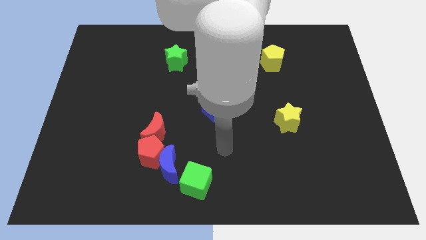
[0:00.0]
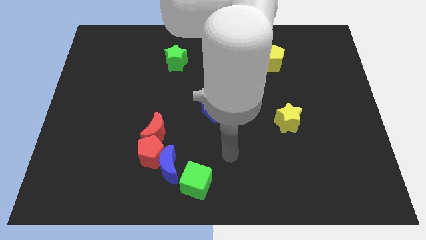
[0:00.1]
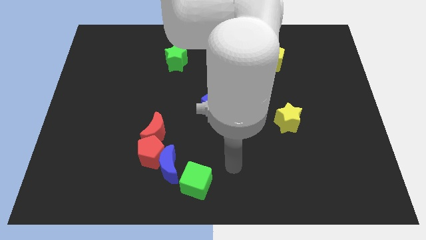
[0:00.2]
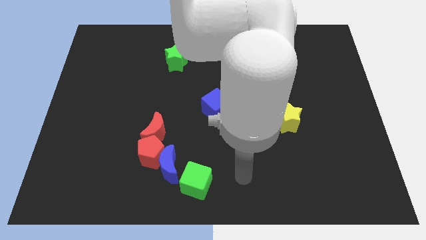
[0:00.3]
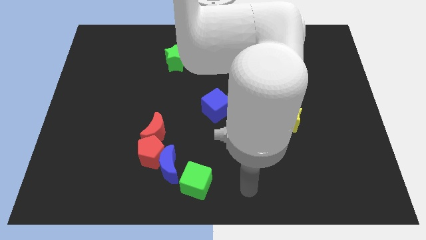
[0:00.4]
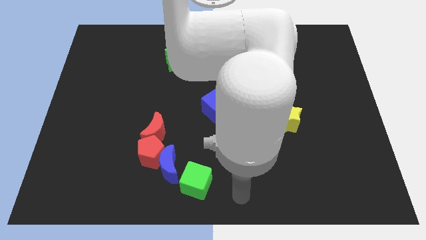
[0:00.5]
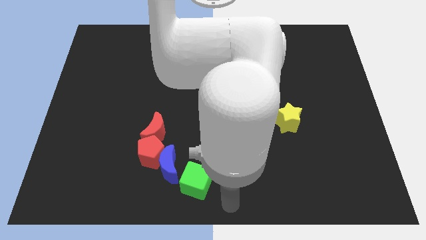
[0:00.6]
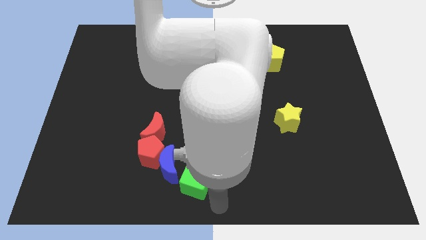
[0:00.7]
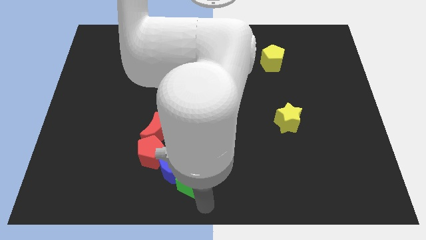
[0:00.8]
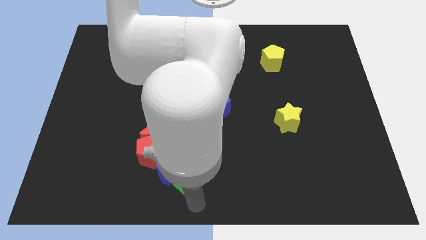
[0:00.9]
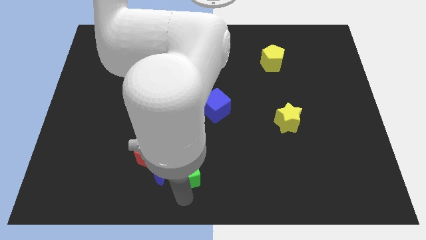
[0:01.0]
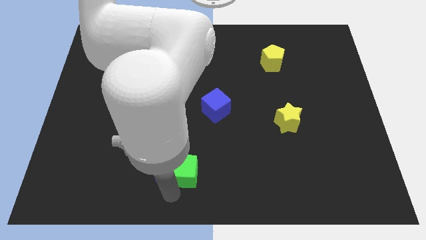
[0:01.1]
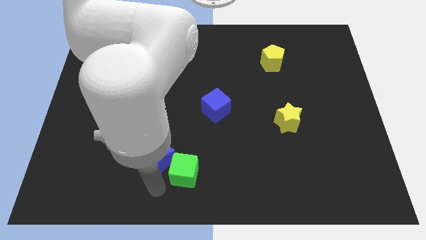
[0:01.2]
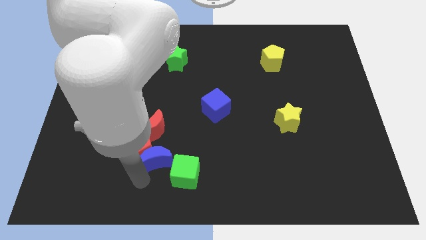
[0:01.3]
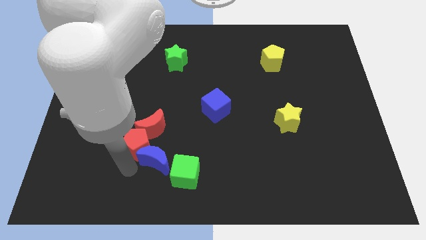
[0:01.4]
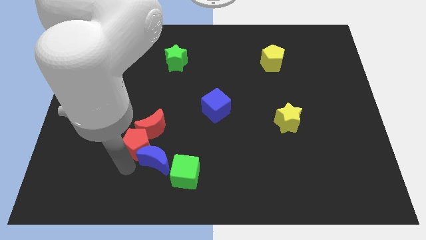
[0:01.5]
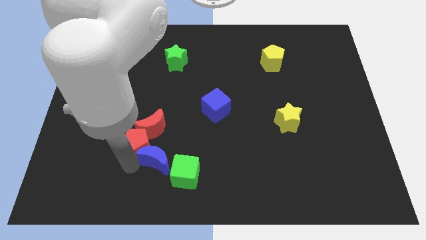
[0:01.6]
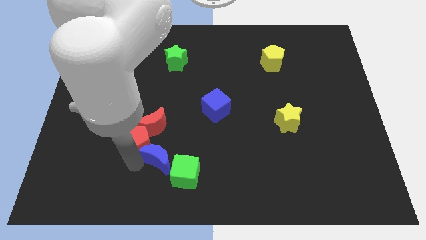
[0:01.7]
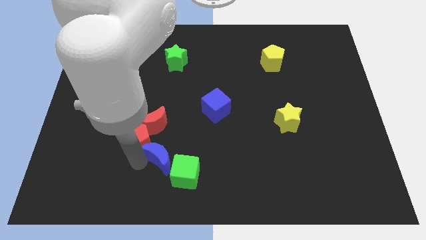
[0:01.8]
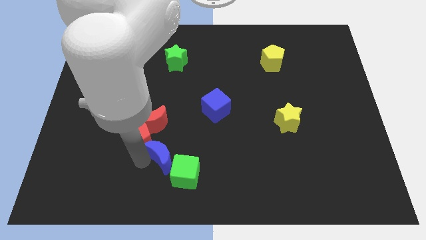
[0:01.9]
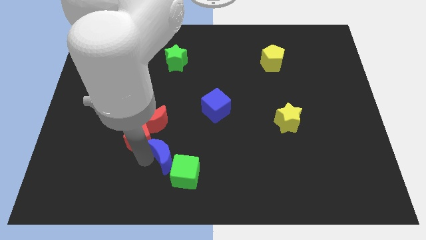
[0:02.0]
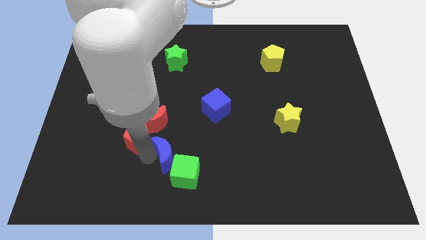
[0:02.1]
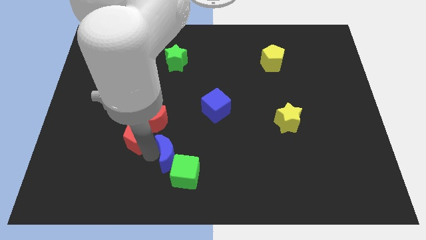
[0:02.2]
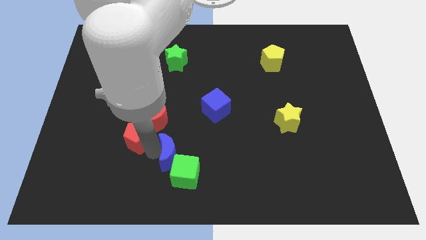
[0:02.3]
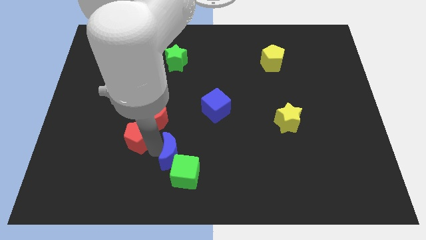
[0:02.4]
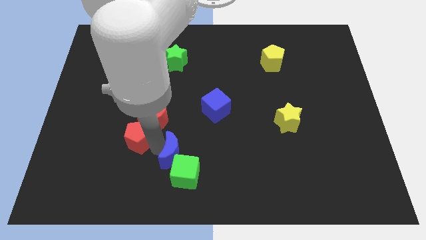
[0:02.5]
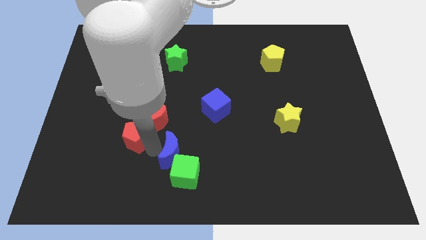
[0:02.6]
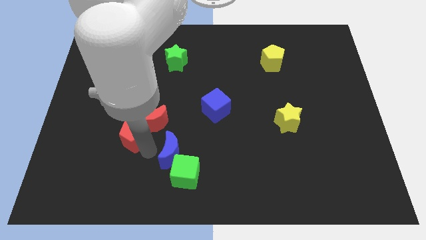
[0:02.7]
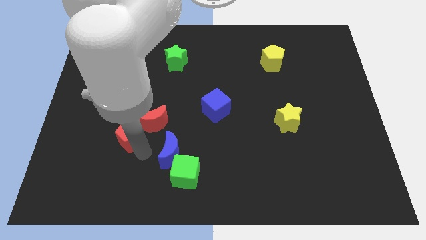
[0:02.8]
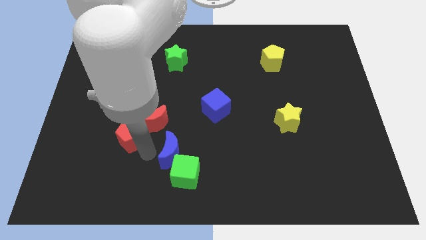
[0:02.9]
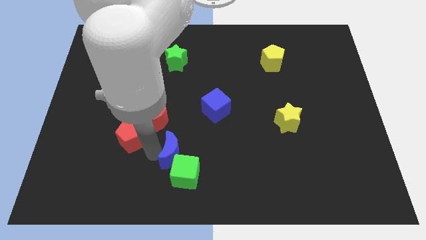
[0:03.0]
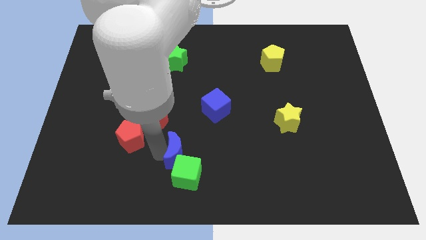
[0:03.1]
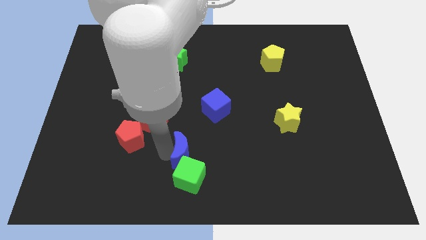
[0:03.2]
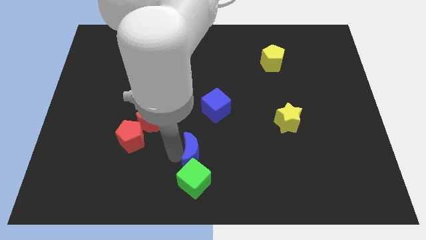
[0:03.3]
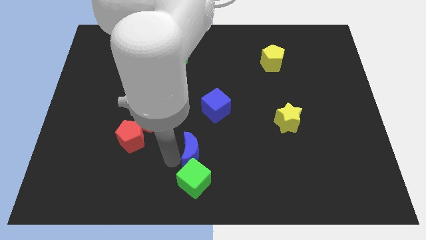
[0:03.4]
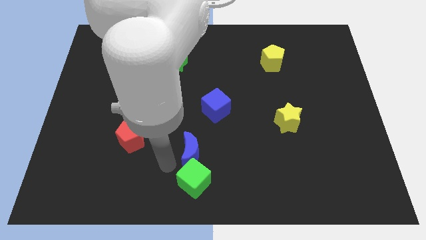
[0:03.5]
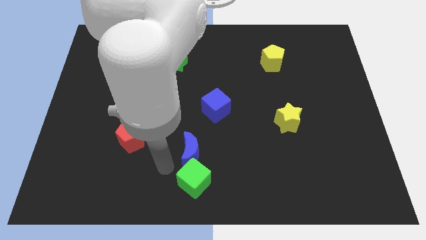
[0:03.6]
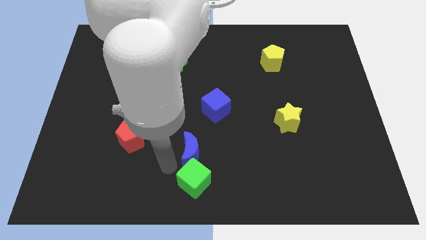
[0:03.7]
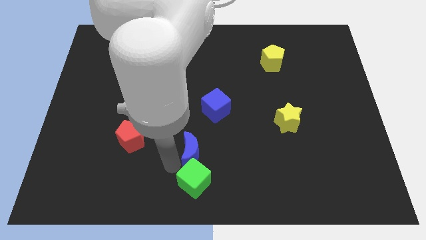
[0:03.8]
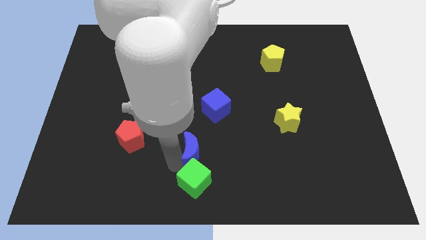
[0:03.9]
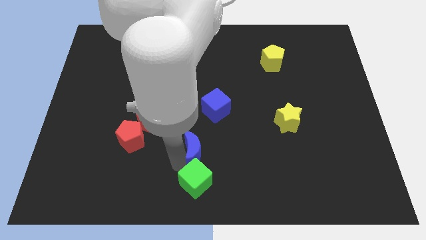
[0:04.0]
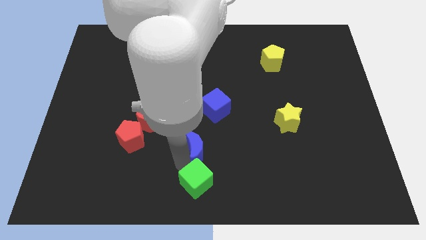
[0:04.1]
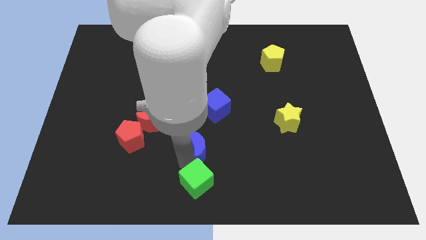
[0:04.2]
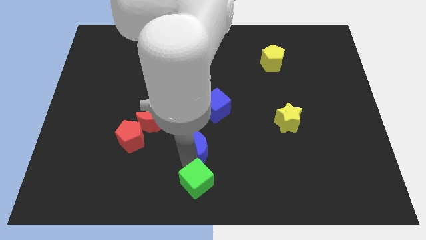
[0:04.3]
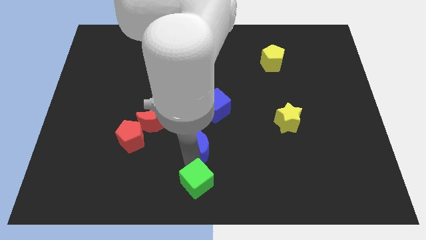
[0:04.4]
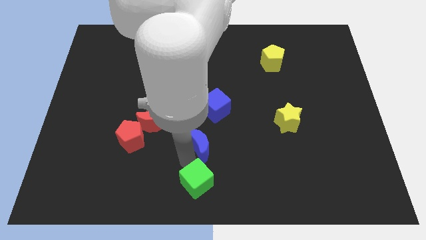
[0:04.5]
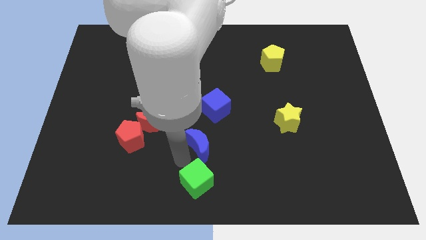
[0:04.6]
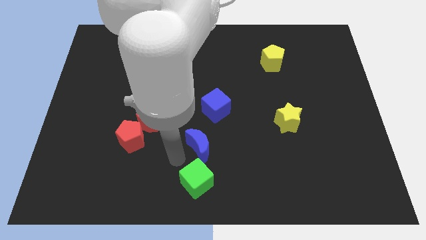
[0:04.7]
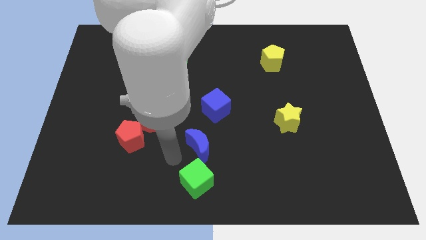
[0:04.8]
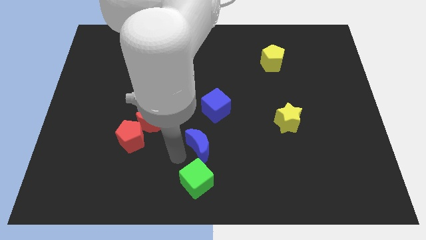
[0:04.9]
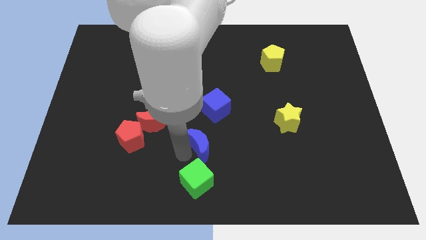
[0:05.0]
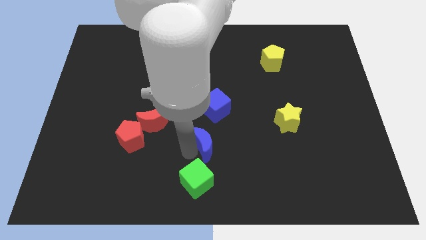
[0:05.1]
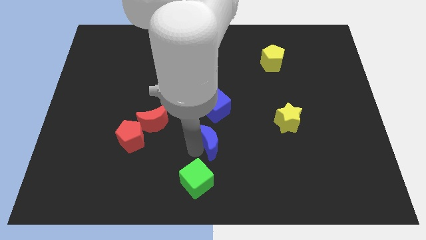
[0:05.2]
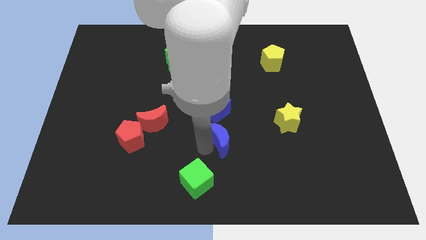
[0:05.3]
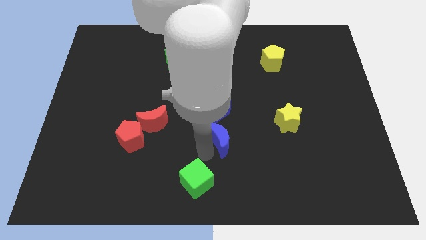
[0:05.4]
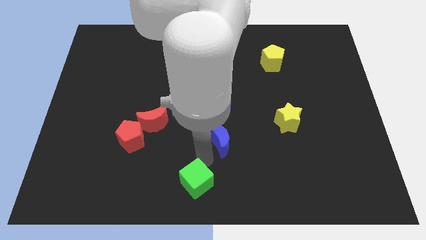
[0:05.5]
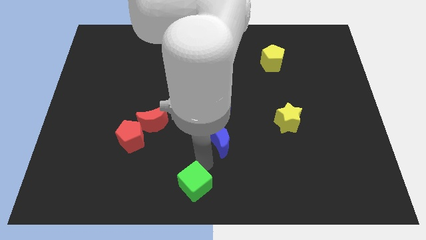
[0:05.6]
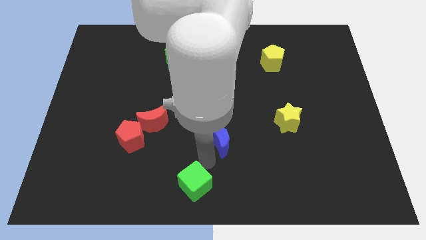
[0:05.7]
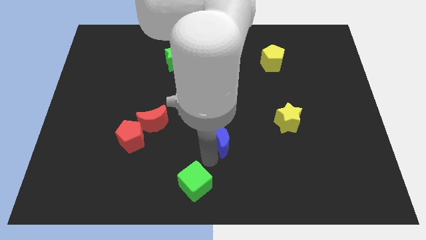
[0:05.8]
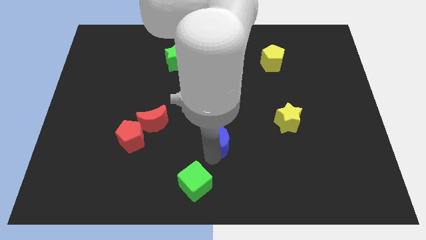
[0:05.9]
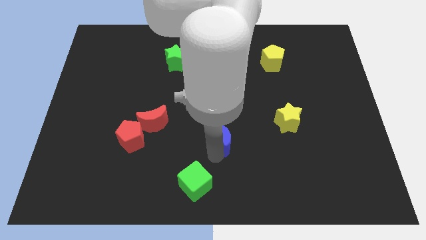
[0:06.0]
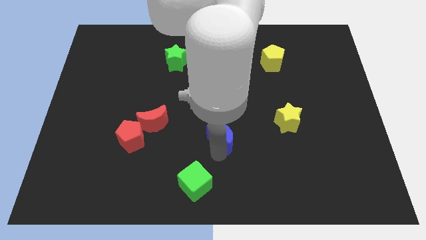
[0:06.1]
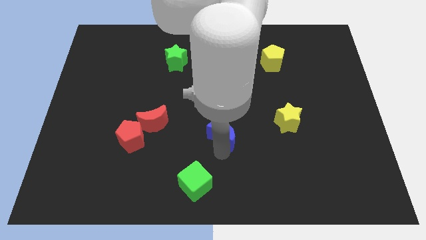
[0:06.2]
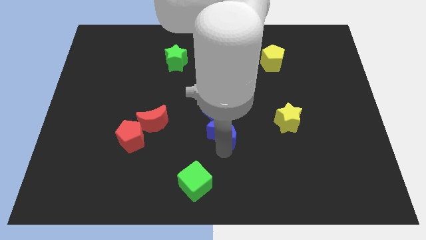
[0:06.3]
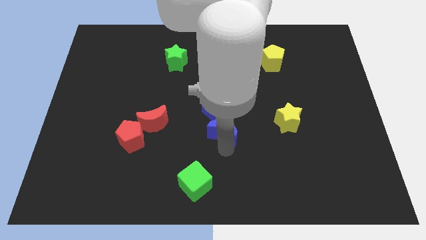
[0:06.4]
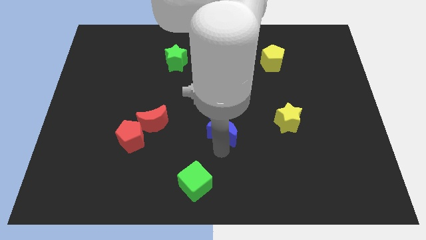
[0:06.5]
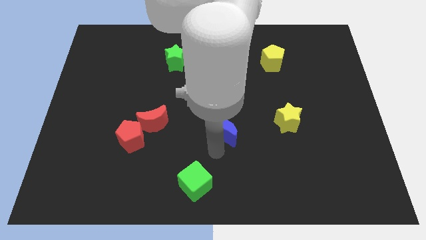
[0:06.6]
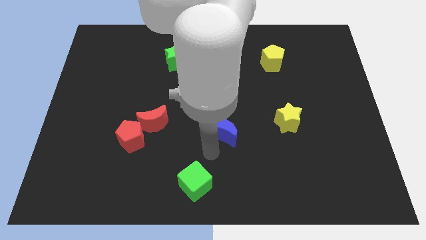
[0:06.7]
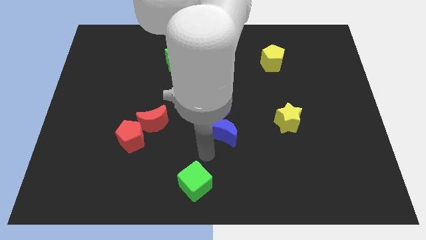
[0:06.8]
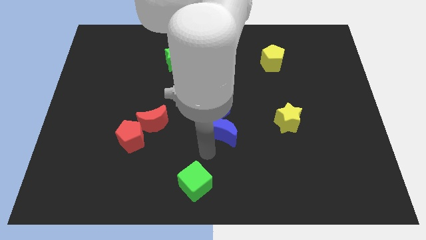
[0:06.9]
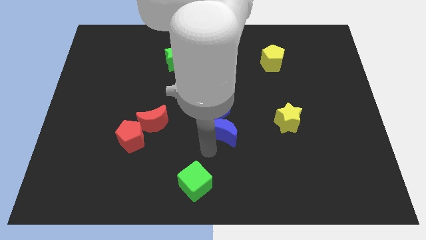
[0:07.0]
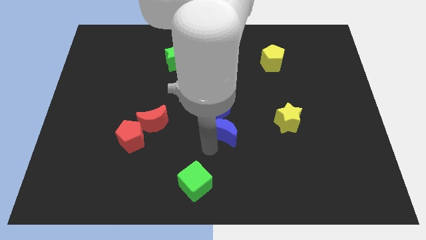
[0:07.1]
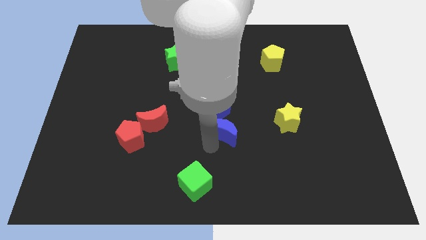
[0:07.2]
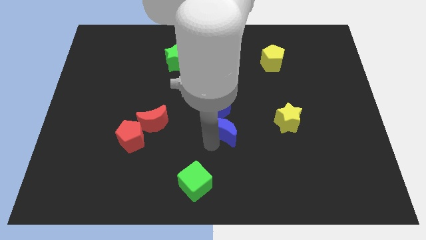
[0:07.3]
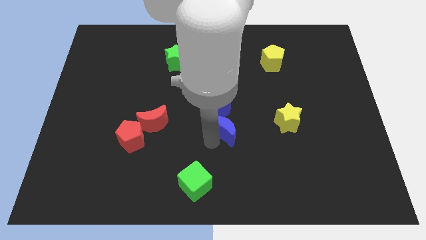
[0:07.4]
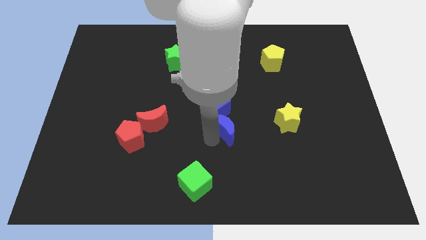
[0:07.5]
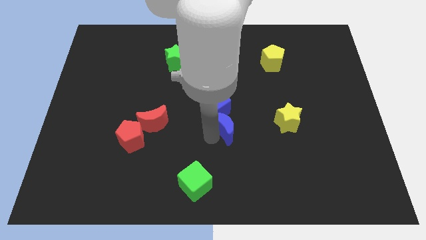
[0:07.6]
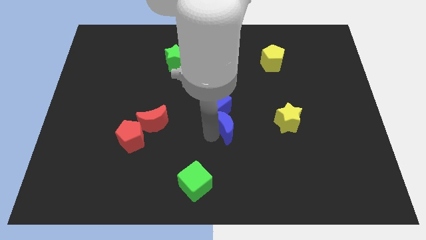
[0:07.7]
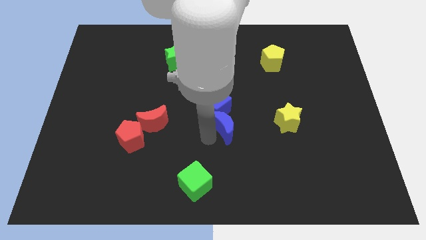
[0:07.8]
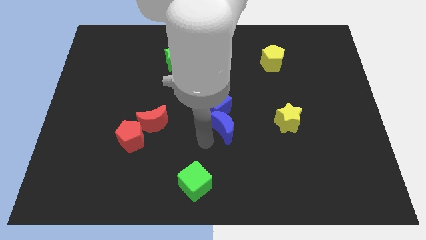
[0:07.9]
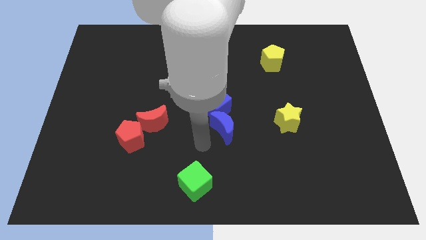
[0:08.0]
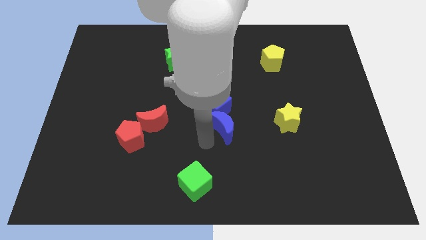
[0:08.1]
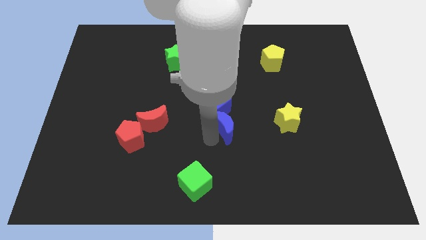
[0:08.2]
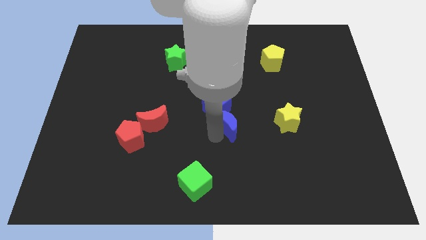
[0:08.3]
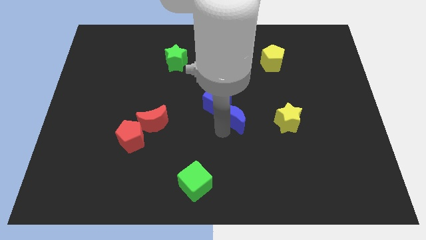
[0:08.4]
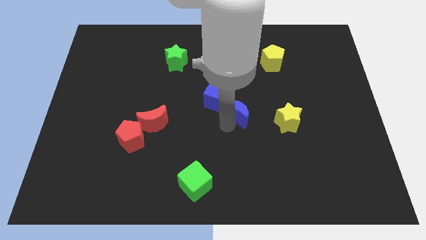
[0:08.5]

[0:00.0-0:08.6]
move the blue moon diagonally up and to the right
